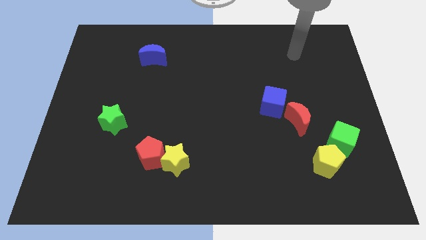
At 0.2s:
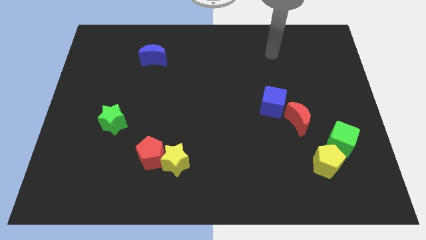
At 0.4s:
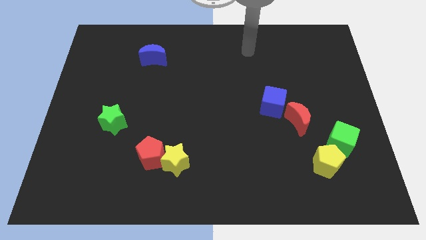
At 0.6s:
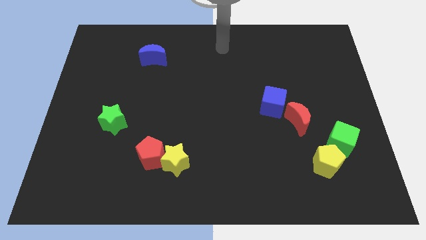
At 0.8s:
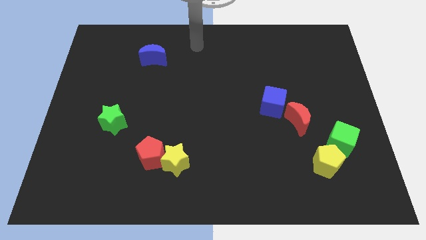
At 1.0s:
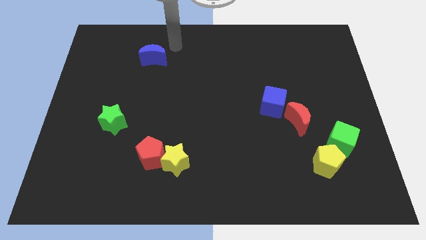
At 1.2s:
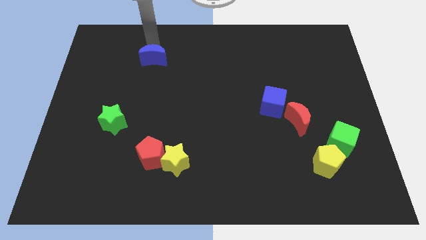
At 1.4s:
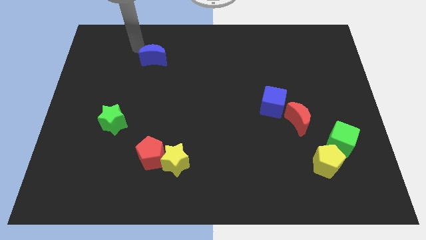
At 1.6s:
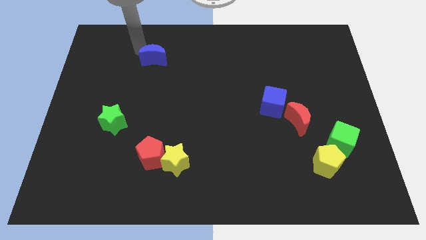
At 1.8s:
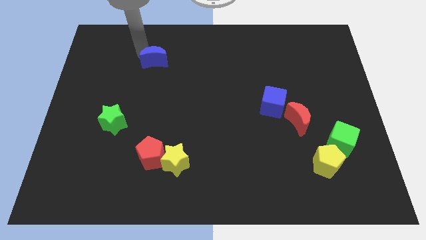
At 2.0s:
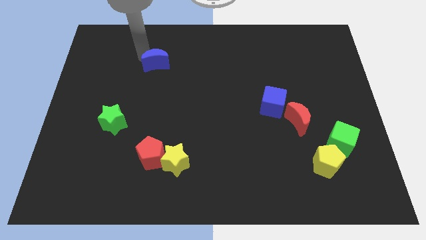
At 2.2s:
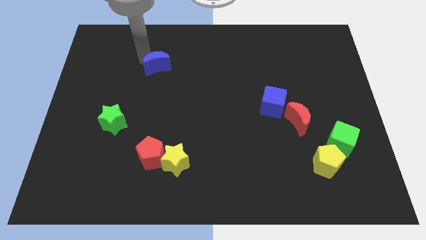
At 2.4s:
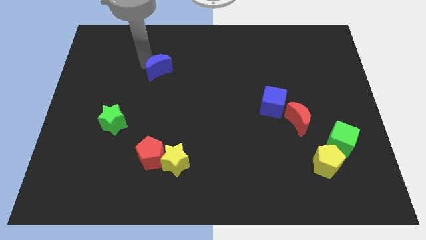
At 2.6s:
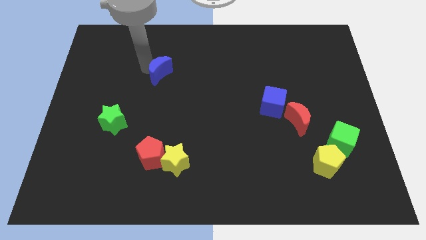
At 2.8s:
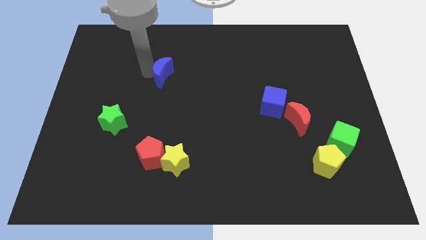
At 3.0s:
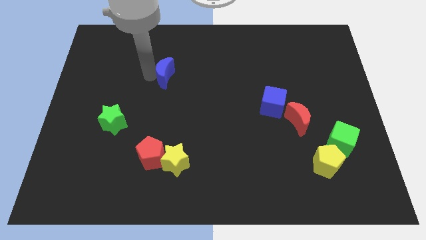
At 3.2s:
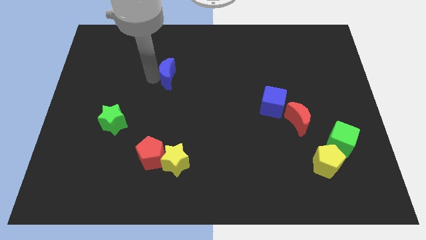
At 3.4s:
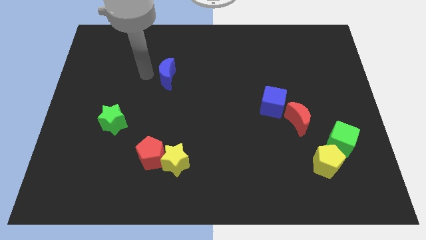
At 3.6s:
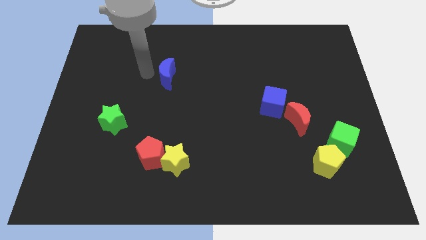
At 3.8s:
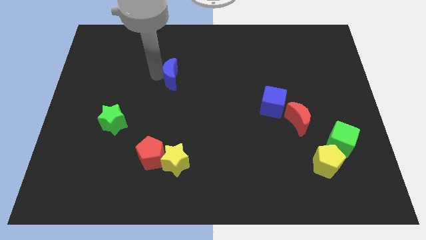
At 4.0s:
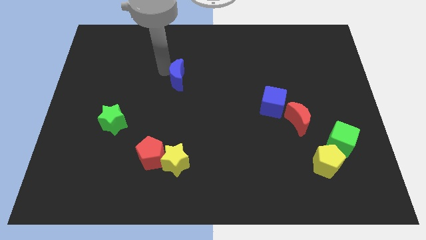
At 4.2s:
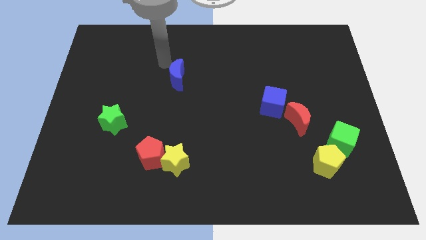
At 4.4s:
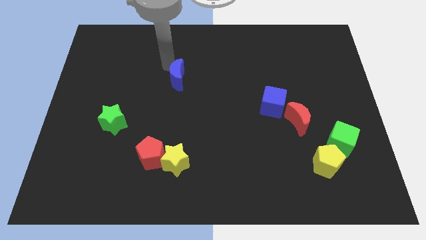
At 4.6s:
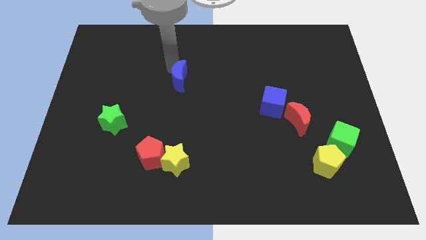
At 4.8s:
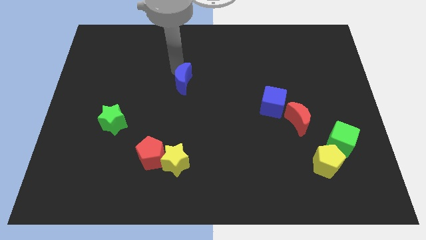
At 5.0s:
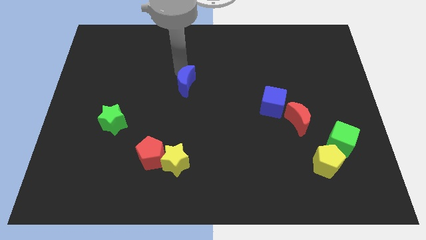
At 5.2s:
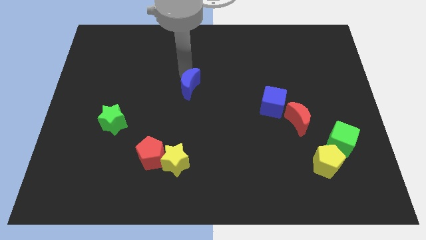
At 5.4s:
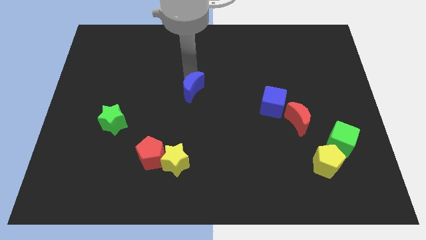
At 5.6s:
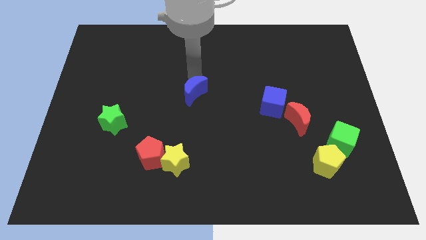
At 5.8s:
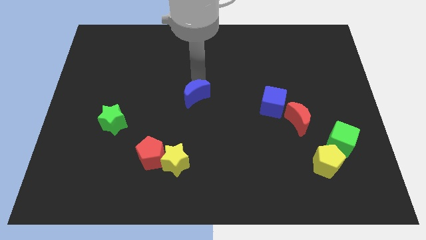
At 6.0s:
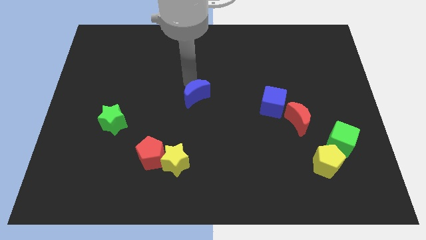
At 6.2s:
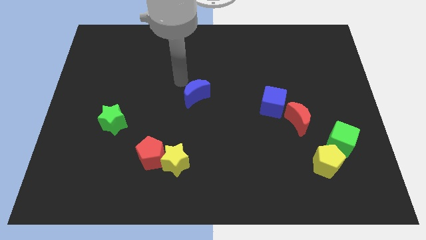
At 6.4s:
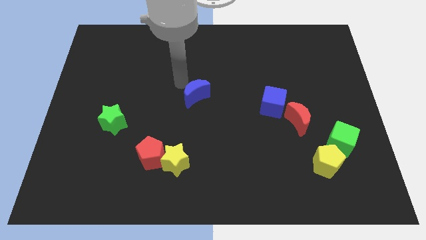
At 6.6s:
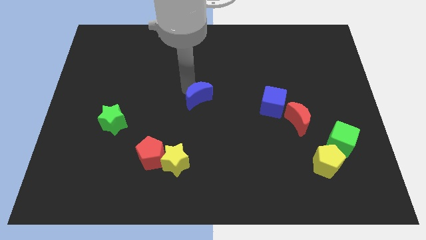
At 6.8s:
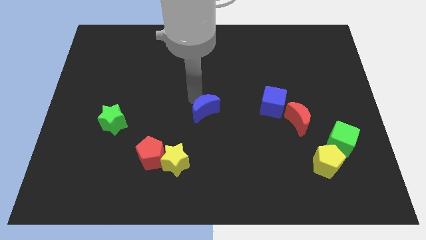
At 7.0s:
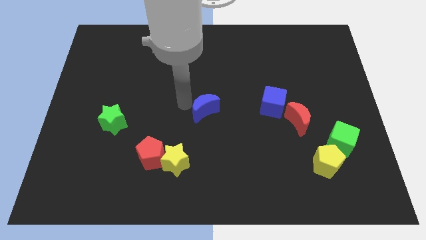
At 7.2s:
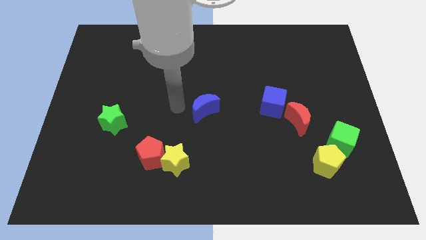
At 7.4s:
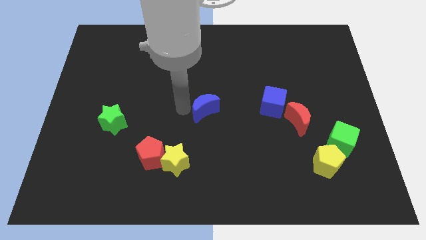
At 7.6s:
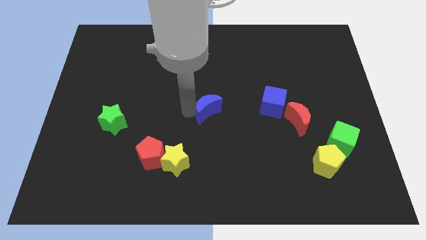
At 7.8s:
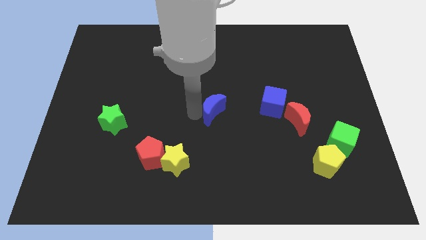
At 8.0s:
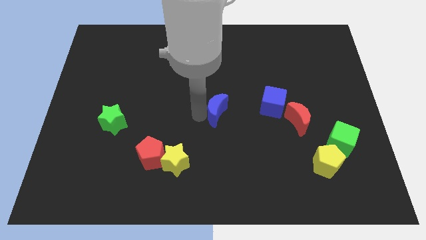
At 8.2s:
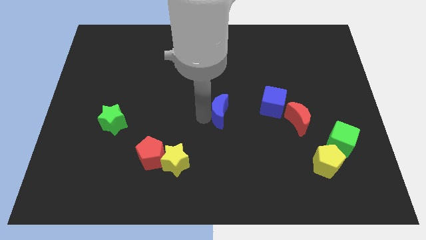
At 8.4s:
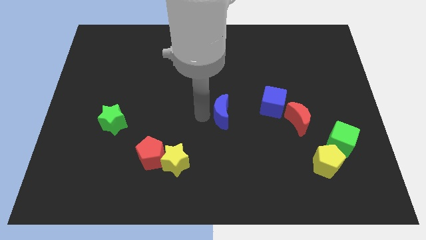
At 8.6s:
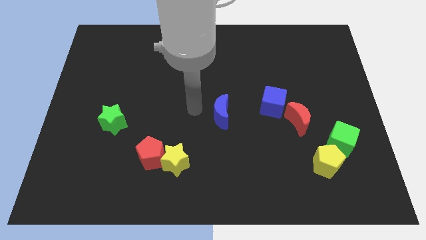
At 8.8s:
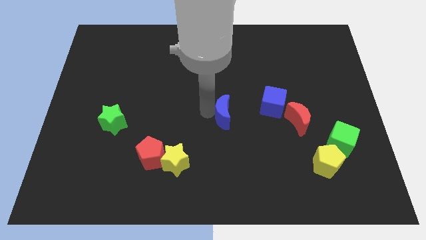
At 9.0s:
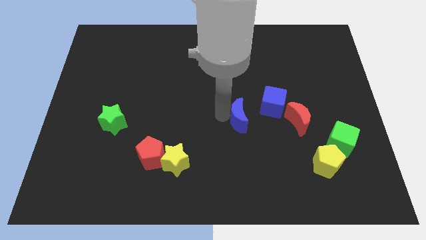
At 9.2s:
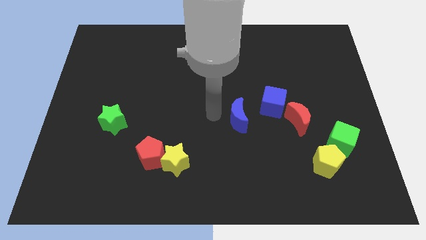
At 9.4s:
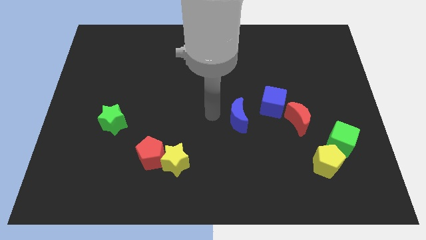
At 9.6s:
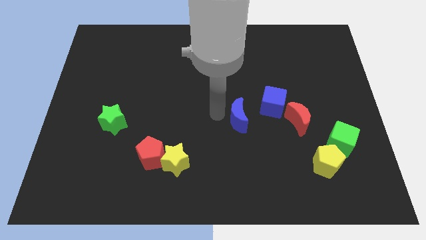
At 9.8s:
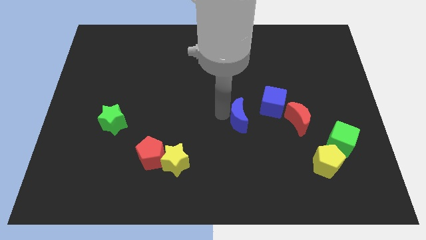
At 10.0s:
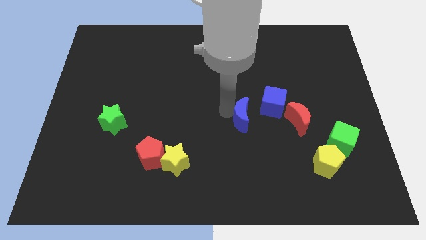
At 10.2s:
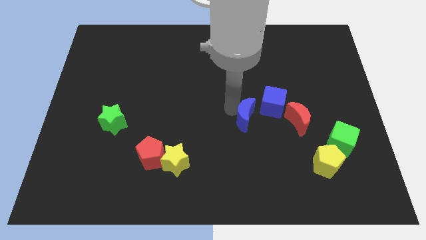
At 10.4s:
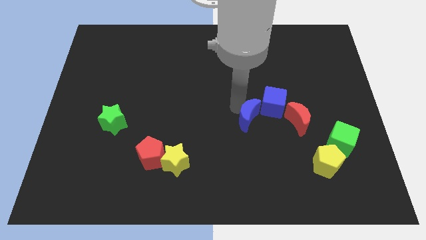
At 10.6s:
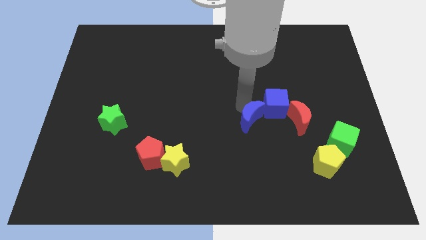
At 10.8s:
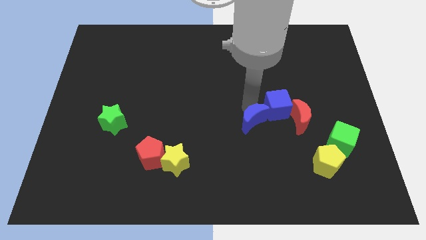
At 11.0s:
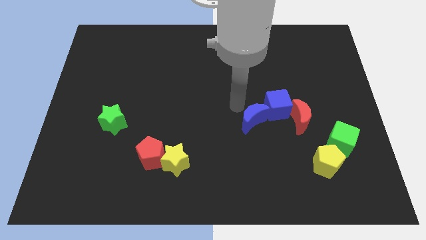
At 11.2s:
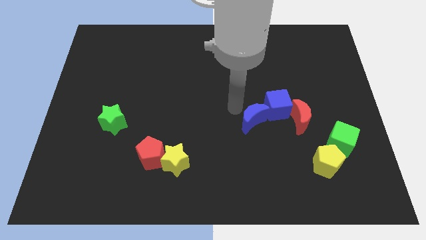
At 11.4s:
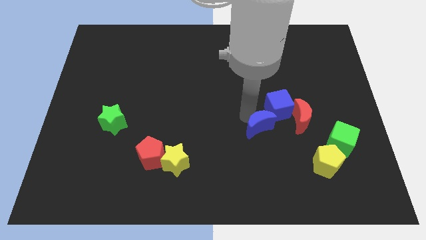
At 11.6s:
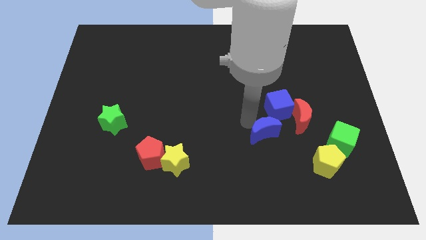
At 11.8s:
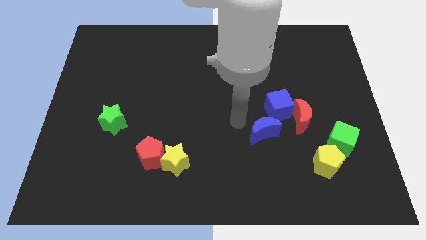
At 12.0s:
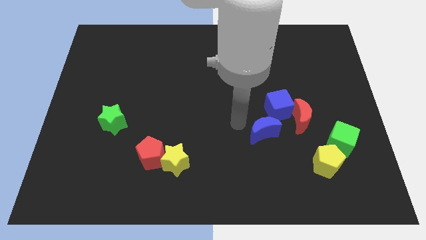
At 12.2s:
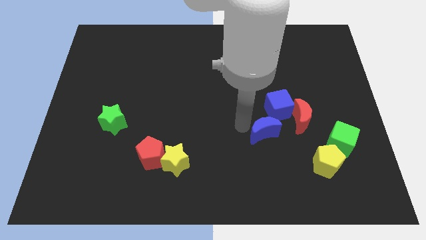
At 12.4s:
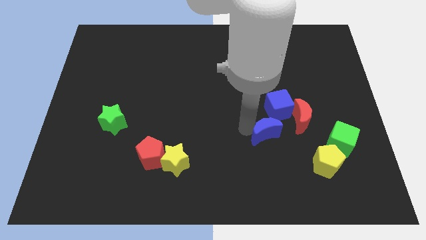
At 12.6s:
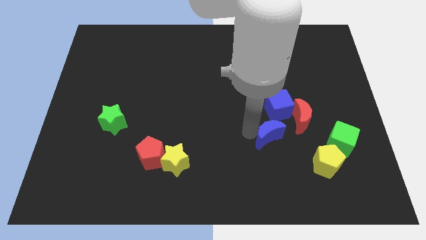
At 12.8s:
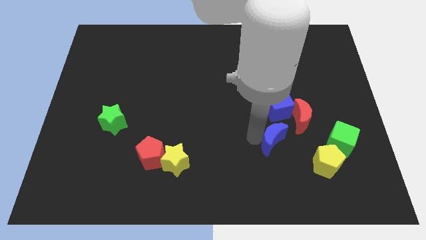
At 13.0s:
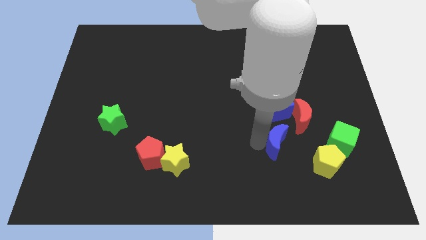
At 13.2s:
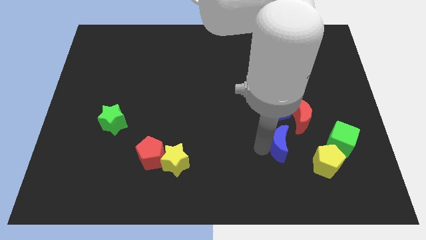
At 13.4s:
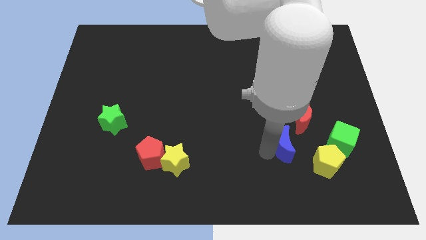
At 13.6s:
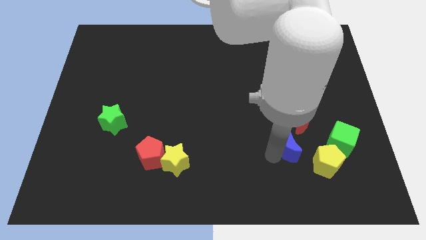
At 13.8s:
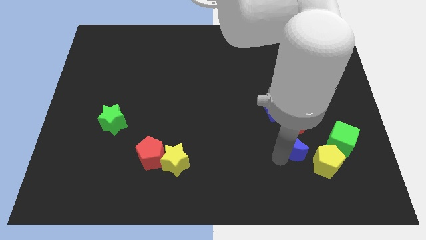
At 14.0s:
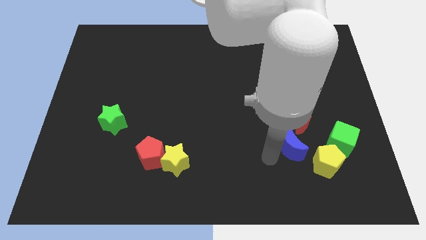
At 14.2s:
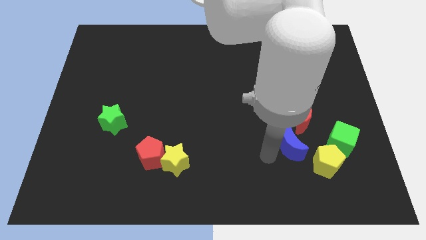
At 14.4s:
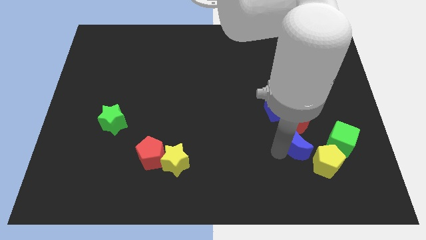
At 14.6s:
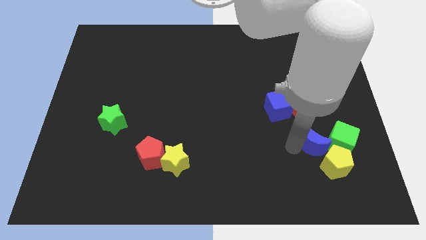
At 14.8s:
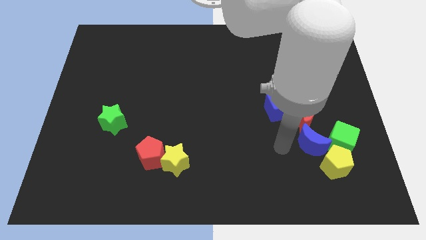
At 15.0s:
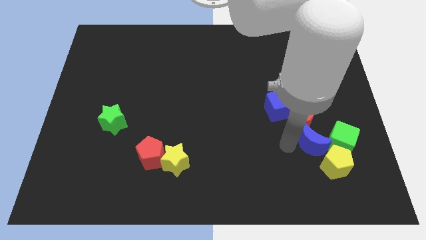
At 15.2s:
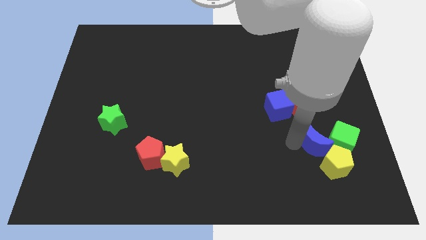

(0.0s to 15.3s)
move the blue moon towards the green cube
